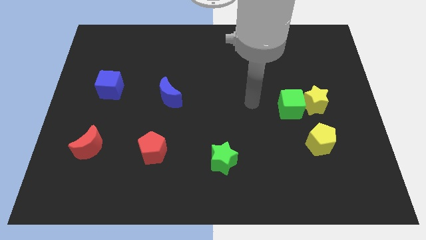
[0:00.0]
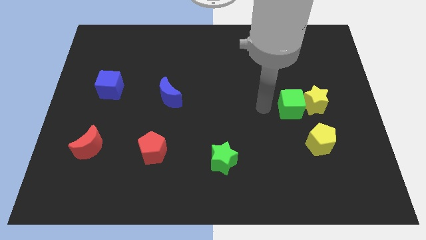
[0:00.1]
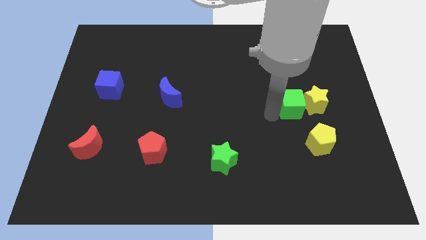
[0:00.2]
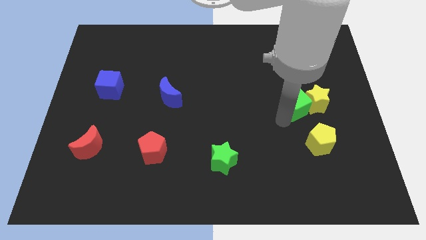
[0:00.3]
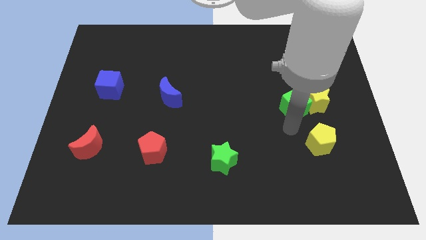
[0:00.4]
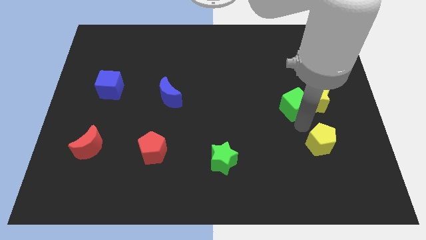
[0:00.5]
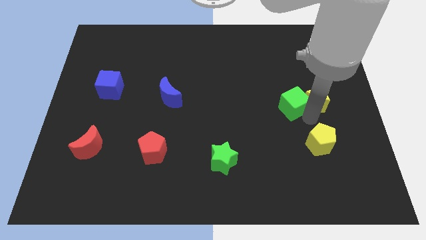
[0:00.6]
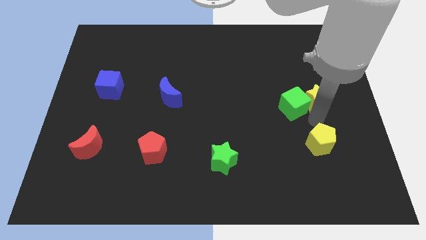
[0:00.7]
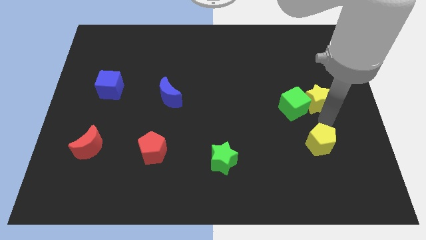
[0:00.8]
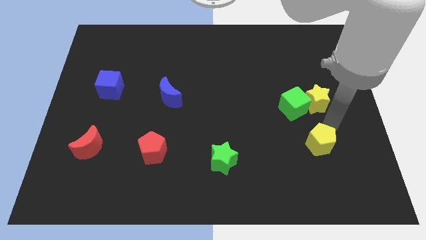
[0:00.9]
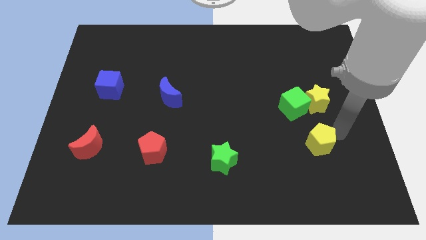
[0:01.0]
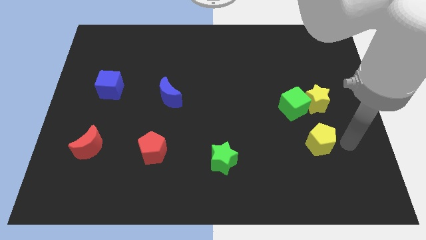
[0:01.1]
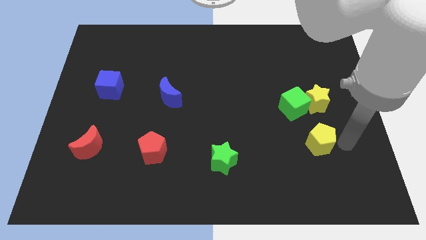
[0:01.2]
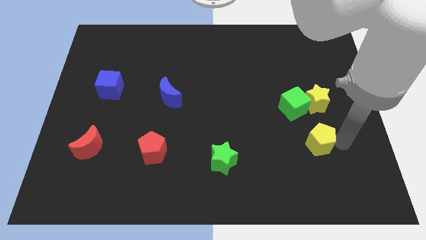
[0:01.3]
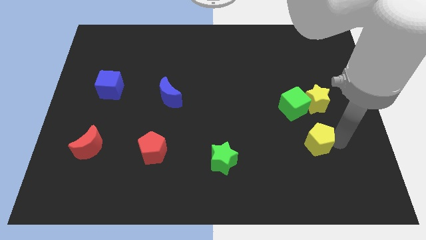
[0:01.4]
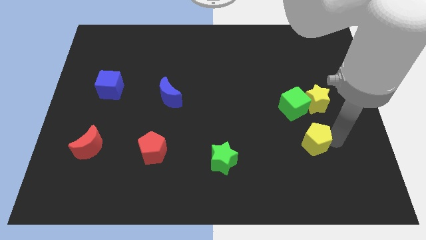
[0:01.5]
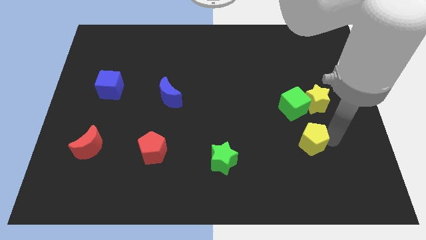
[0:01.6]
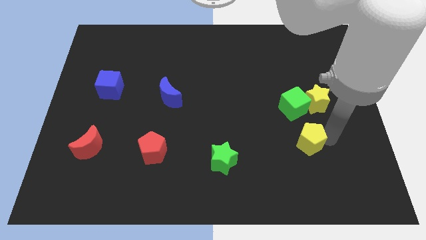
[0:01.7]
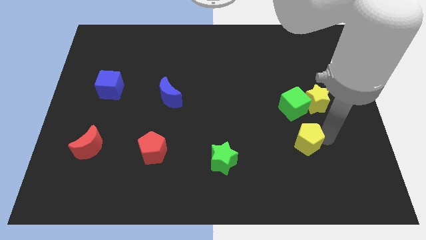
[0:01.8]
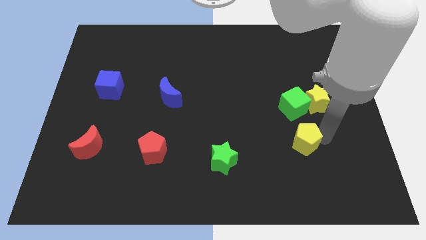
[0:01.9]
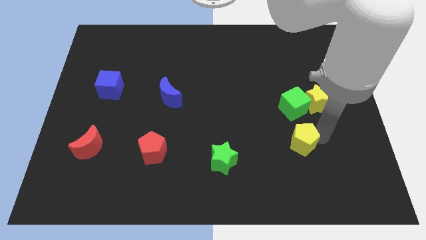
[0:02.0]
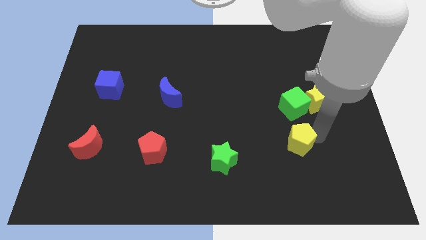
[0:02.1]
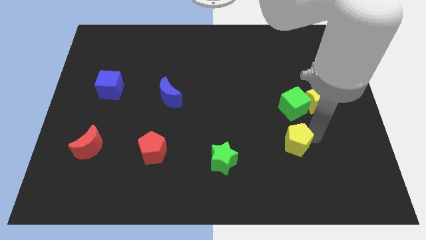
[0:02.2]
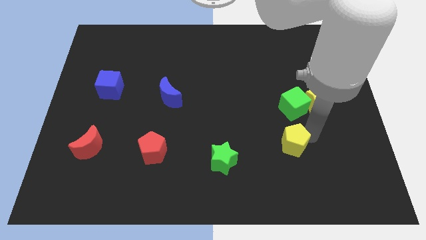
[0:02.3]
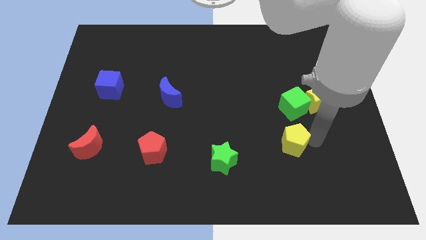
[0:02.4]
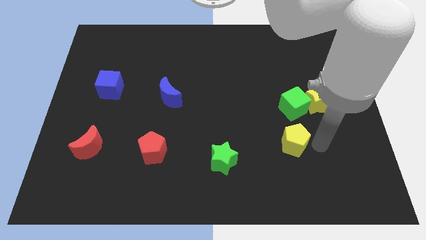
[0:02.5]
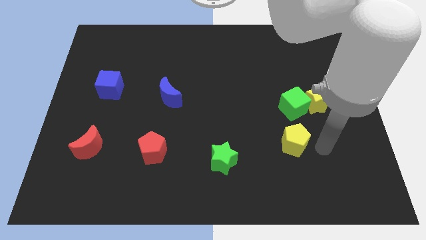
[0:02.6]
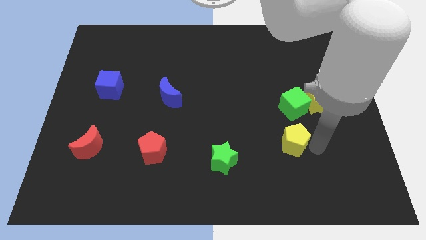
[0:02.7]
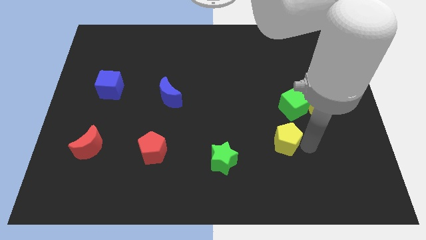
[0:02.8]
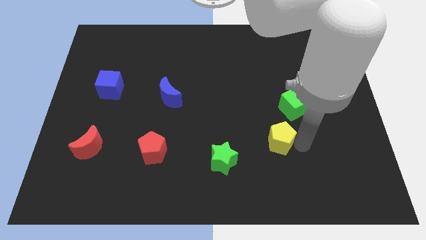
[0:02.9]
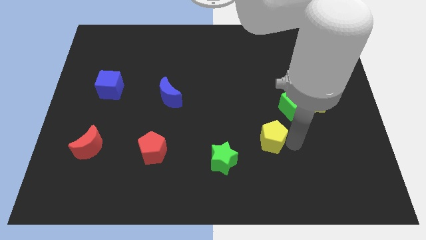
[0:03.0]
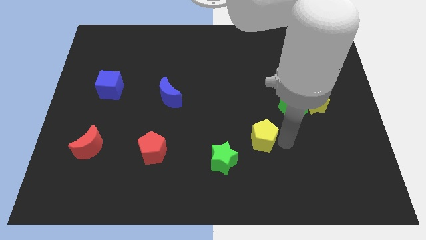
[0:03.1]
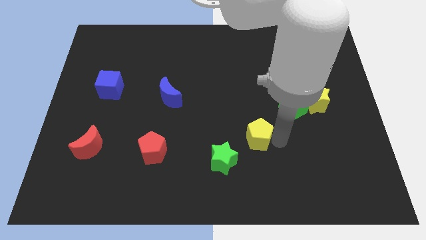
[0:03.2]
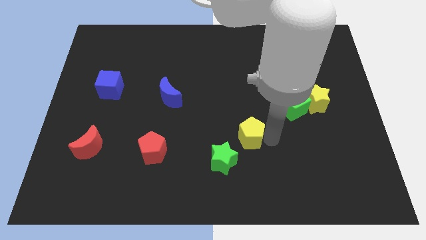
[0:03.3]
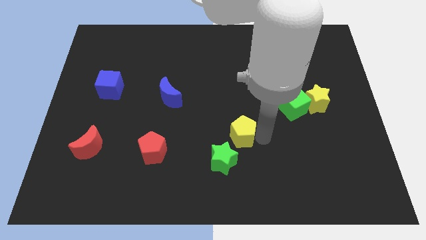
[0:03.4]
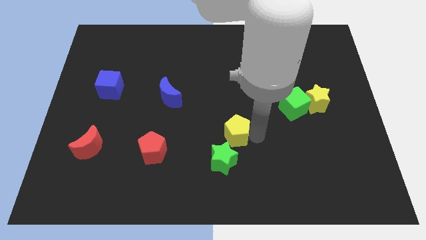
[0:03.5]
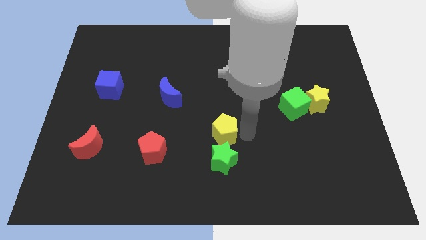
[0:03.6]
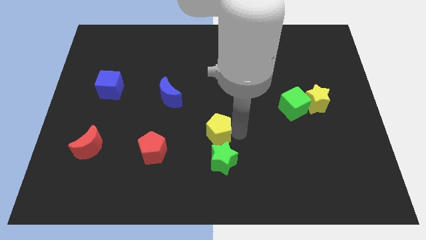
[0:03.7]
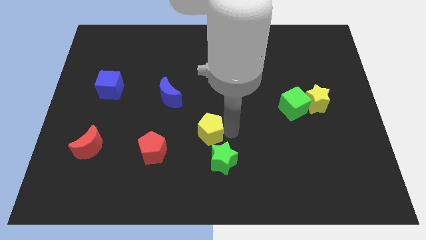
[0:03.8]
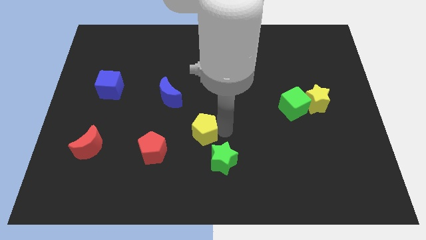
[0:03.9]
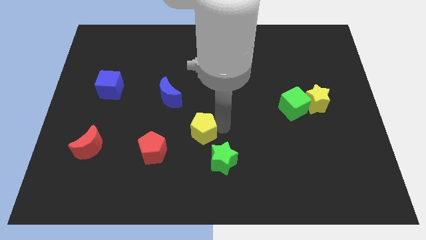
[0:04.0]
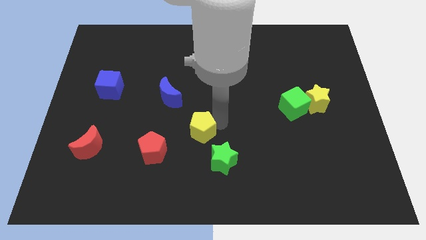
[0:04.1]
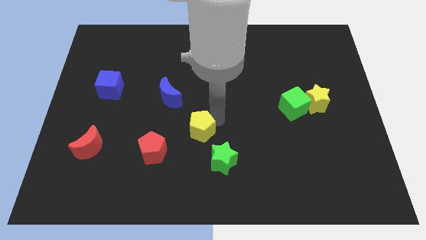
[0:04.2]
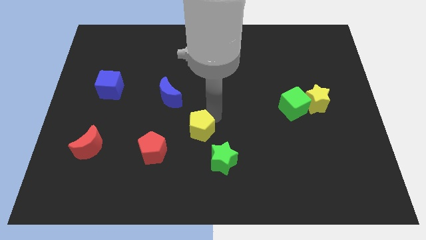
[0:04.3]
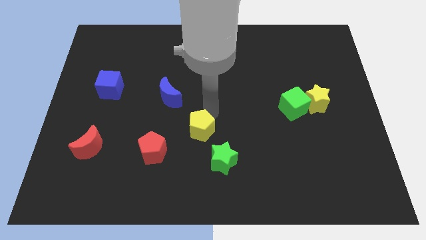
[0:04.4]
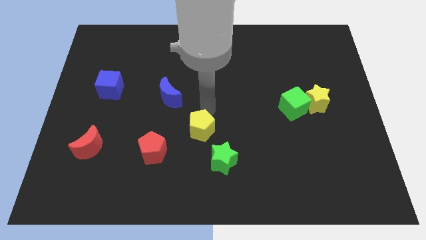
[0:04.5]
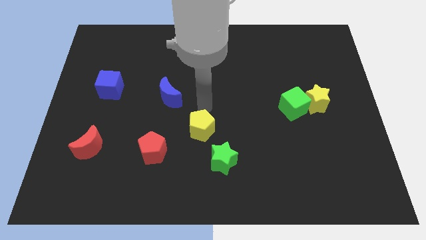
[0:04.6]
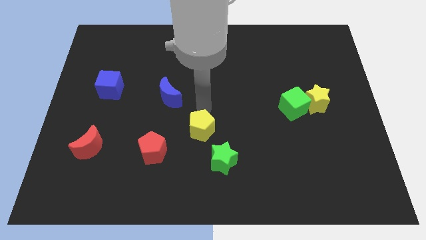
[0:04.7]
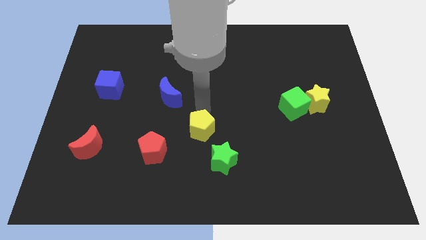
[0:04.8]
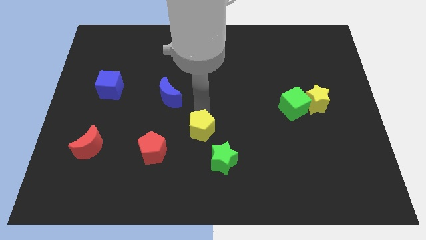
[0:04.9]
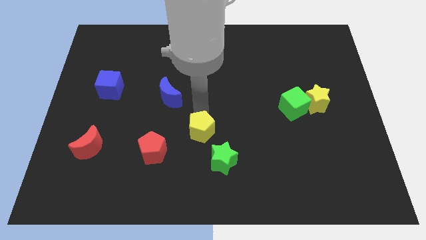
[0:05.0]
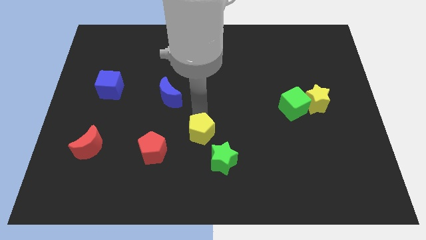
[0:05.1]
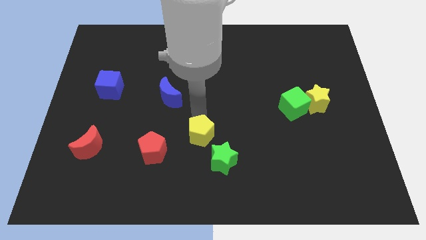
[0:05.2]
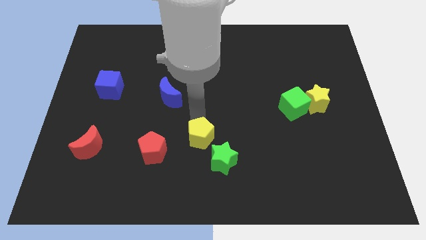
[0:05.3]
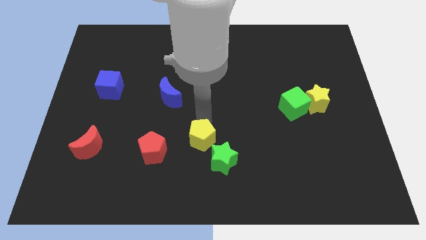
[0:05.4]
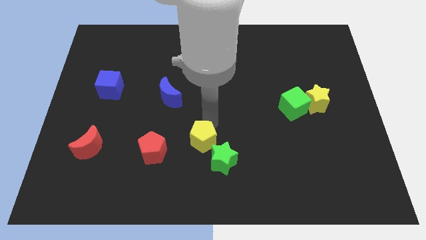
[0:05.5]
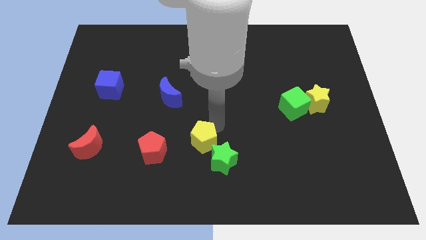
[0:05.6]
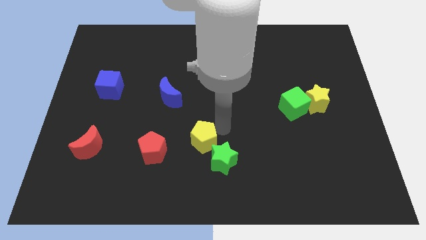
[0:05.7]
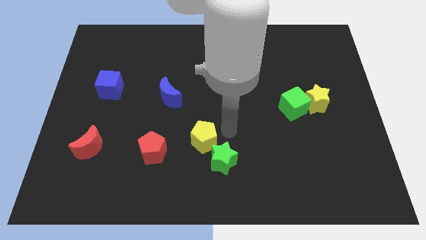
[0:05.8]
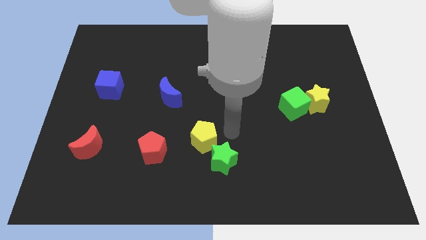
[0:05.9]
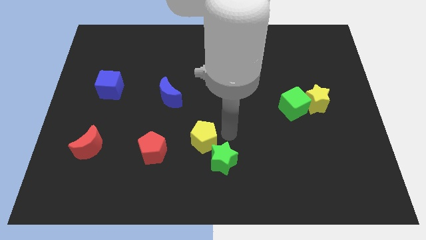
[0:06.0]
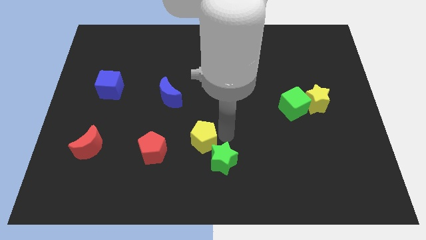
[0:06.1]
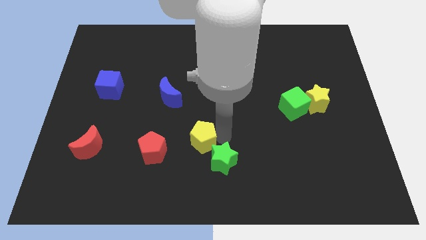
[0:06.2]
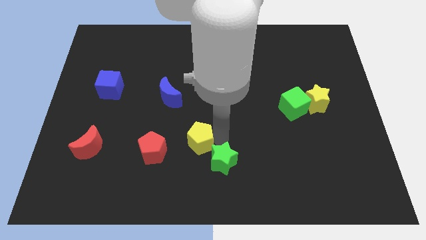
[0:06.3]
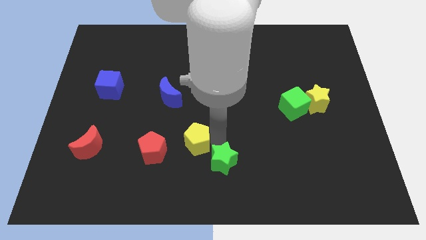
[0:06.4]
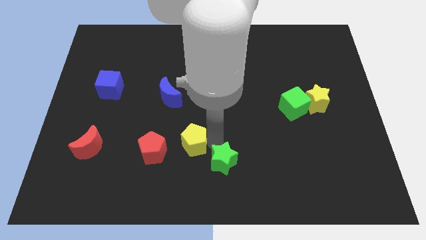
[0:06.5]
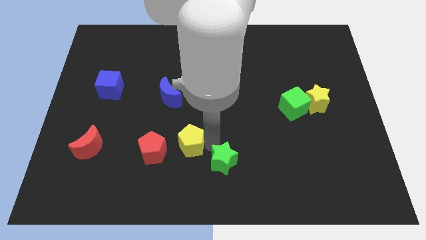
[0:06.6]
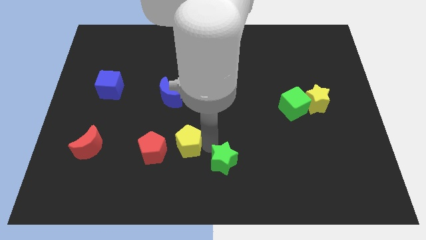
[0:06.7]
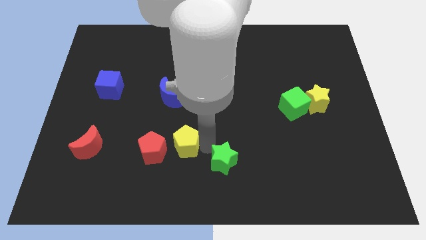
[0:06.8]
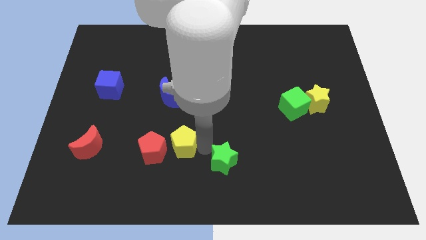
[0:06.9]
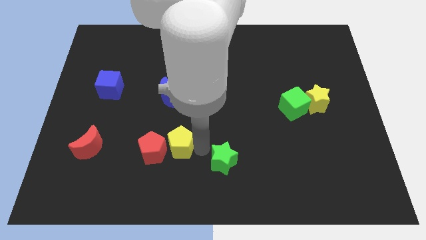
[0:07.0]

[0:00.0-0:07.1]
slide the yellow pentagon to the red pentagon
